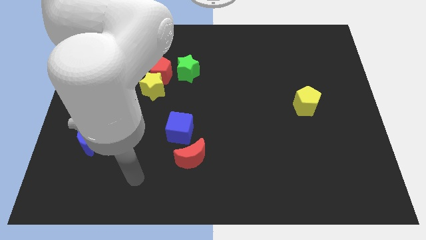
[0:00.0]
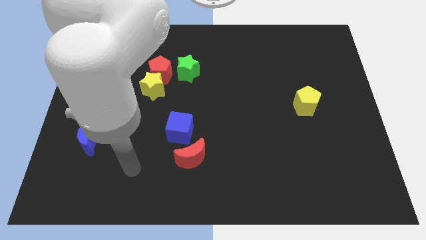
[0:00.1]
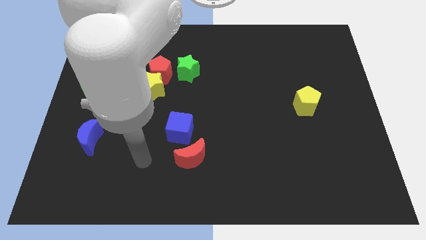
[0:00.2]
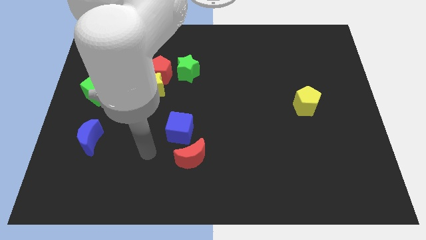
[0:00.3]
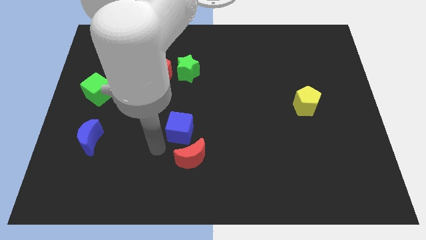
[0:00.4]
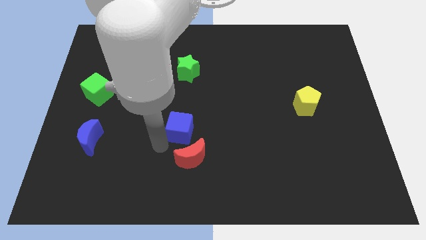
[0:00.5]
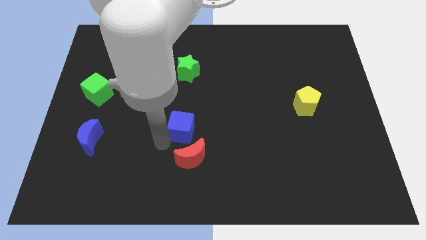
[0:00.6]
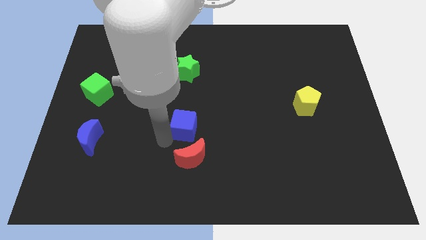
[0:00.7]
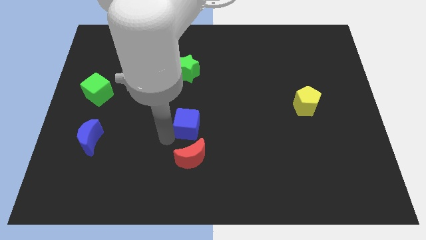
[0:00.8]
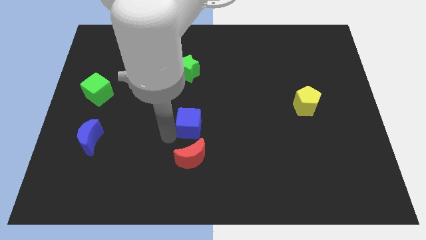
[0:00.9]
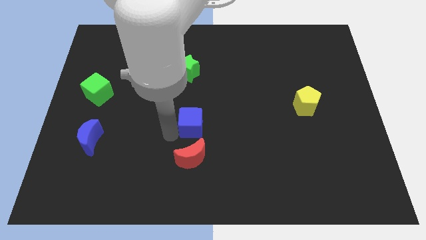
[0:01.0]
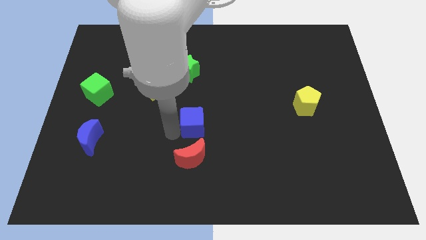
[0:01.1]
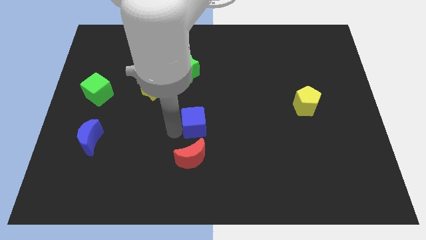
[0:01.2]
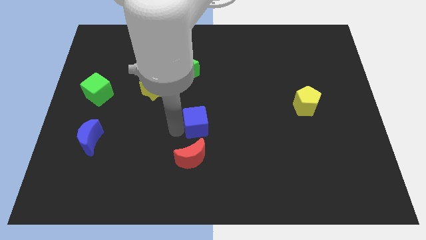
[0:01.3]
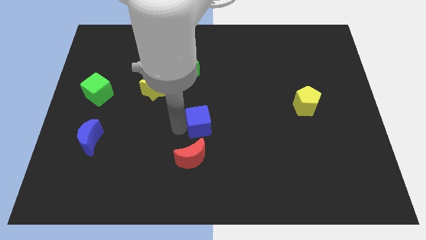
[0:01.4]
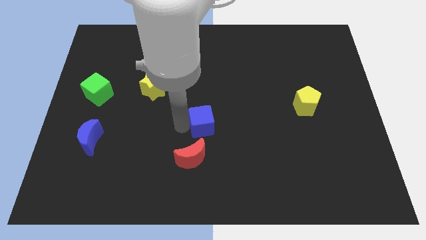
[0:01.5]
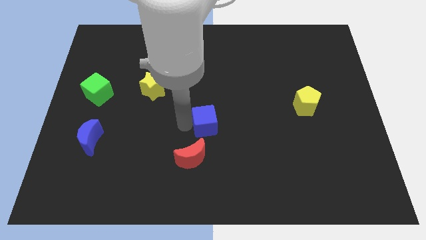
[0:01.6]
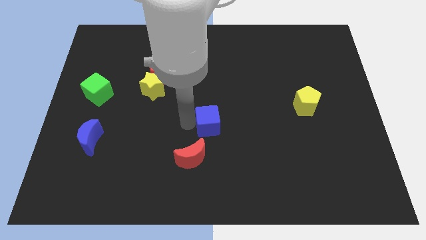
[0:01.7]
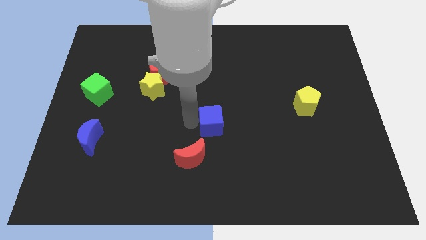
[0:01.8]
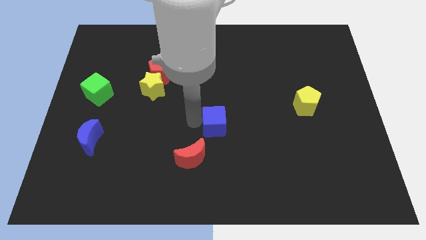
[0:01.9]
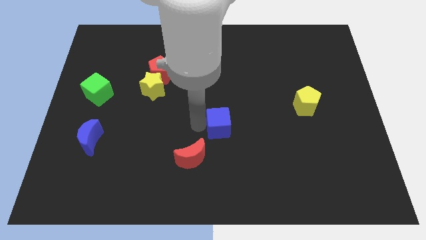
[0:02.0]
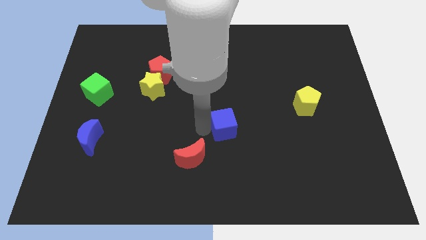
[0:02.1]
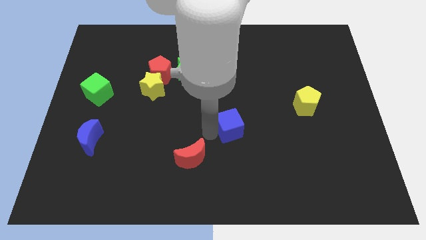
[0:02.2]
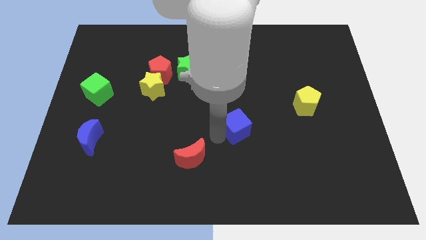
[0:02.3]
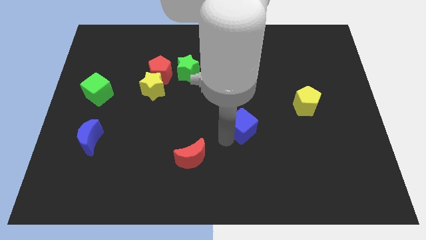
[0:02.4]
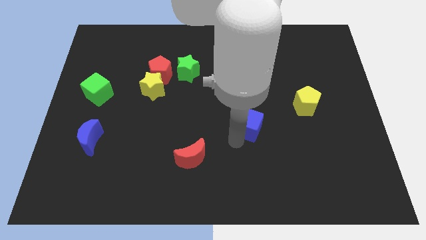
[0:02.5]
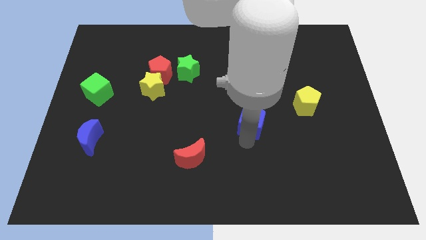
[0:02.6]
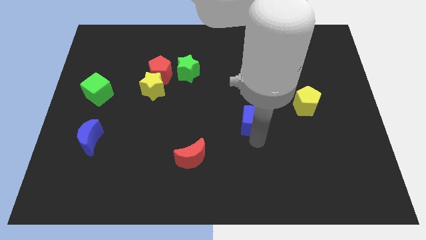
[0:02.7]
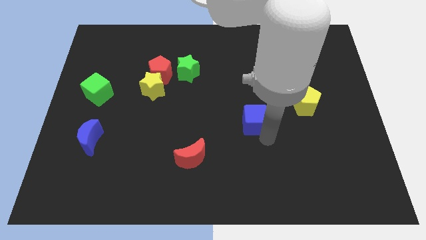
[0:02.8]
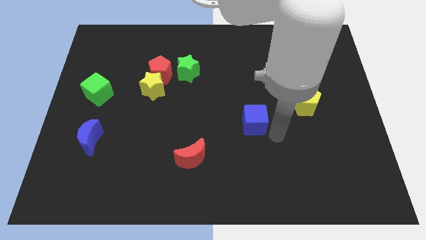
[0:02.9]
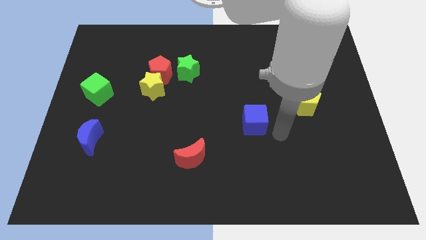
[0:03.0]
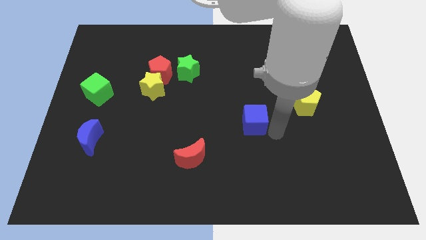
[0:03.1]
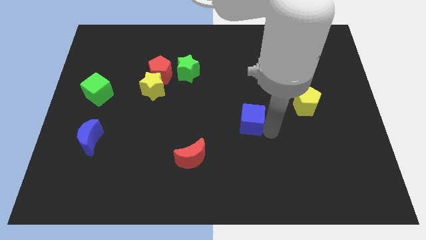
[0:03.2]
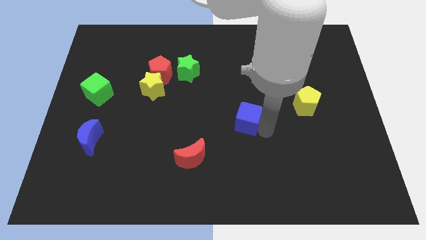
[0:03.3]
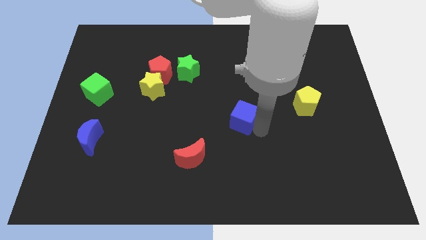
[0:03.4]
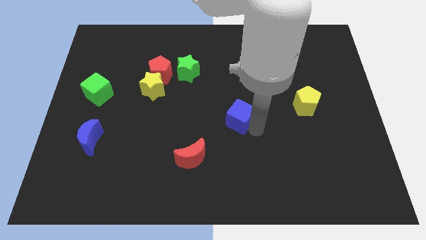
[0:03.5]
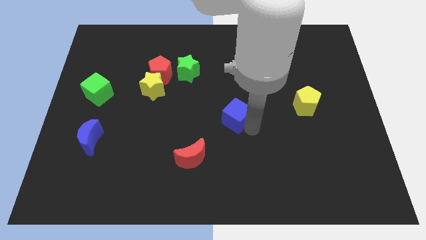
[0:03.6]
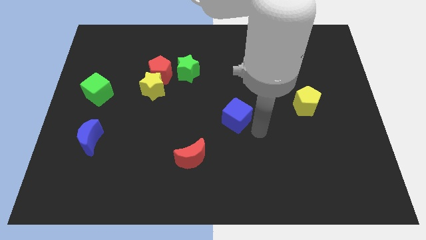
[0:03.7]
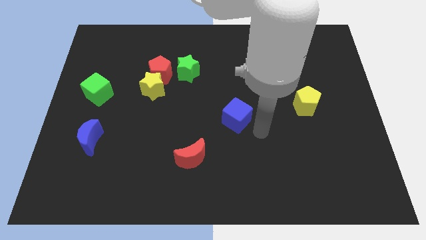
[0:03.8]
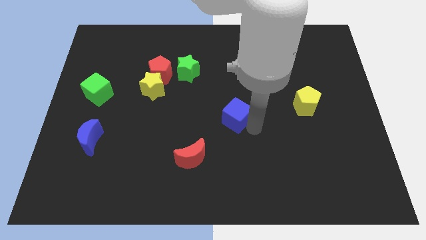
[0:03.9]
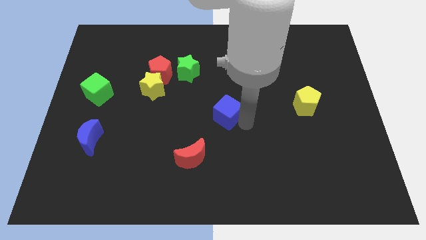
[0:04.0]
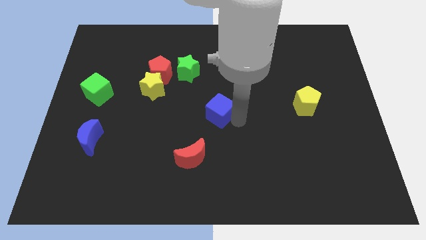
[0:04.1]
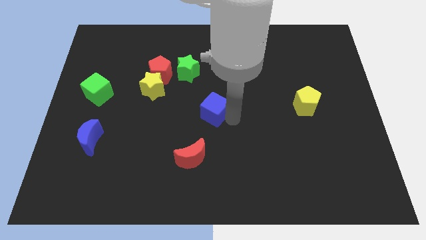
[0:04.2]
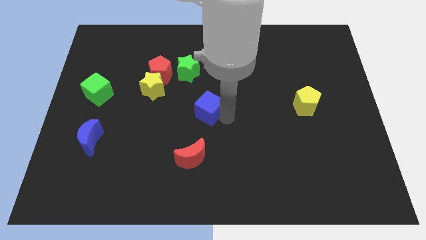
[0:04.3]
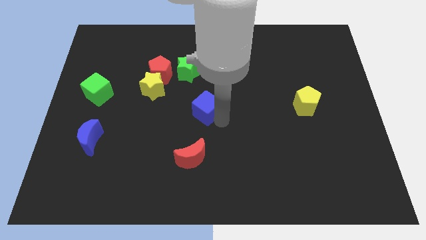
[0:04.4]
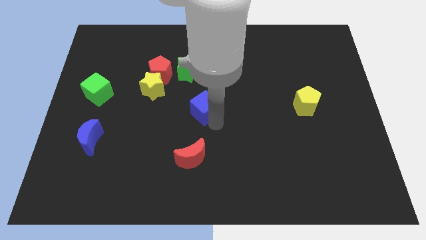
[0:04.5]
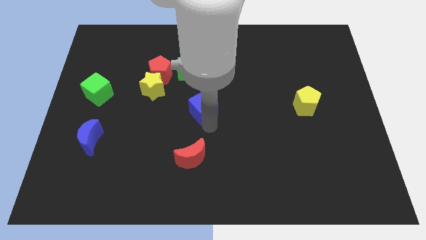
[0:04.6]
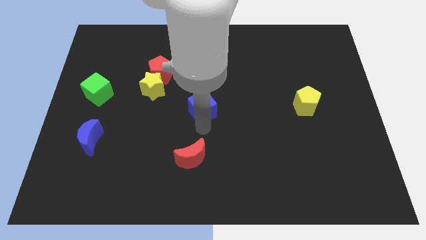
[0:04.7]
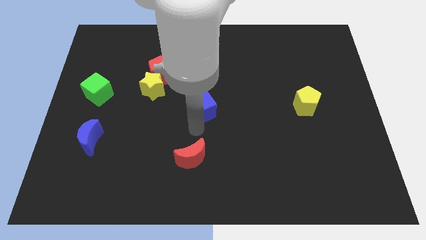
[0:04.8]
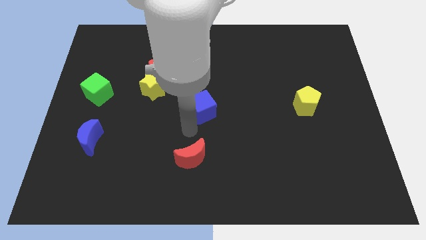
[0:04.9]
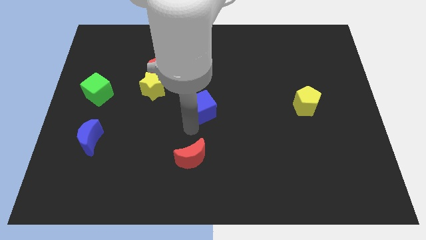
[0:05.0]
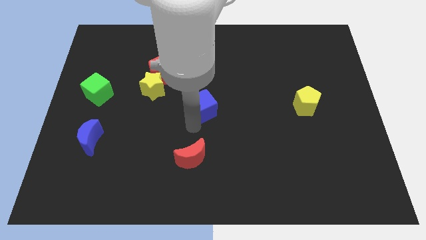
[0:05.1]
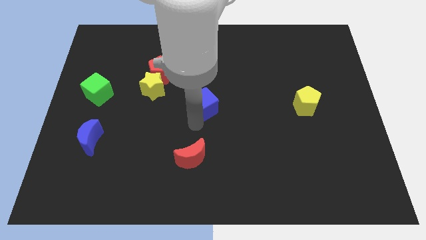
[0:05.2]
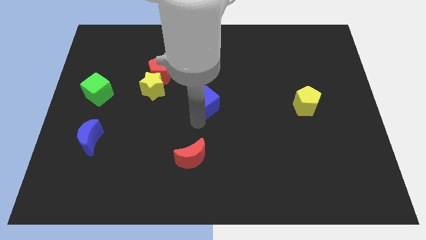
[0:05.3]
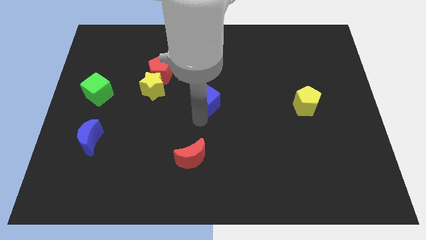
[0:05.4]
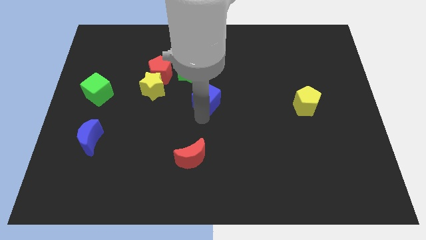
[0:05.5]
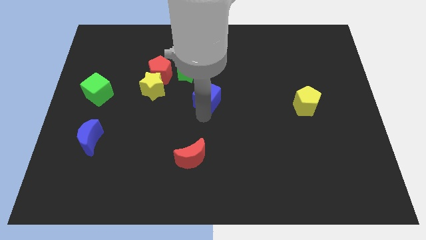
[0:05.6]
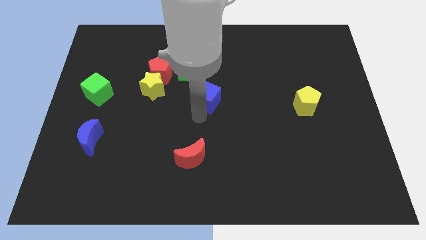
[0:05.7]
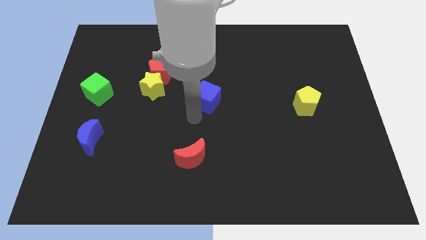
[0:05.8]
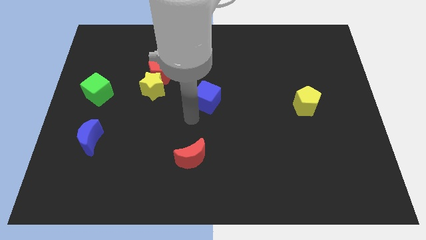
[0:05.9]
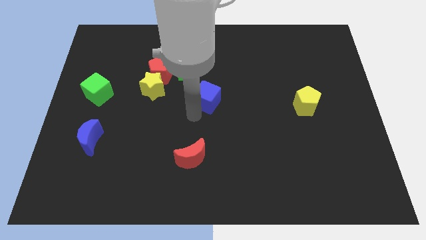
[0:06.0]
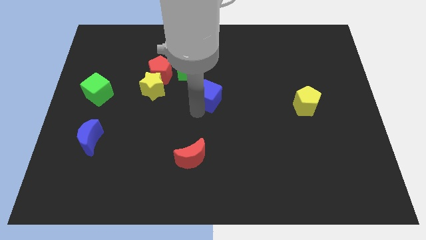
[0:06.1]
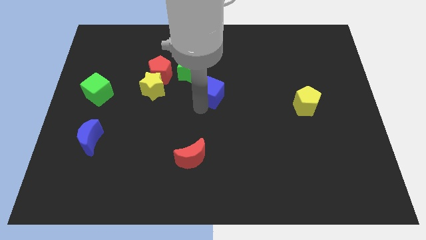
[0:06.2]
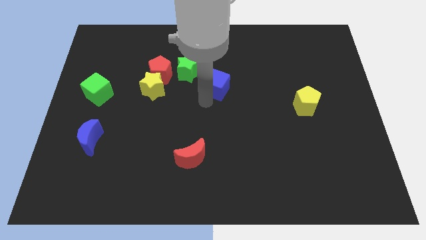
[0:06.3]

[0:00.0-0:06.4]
move the blue cube to the right side of the green star

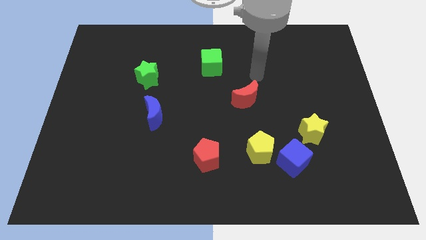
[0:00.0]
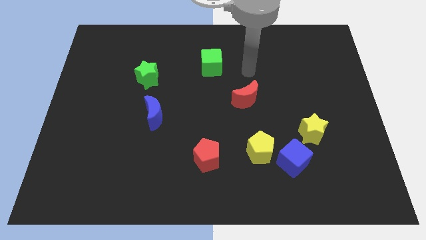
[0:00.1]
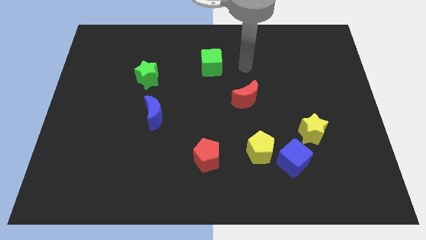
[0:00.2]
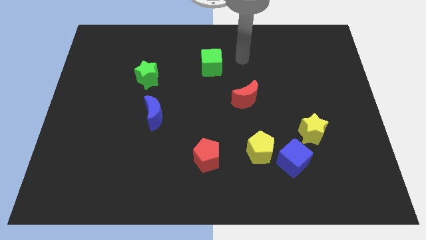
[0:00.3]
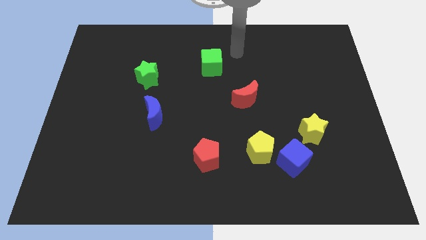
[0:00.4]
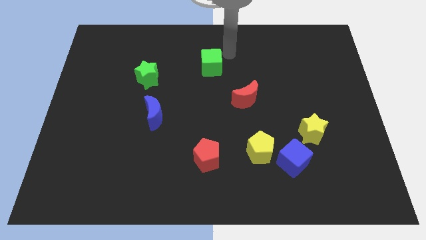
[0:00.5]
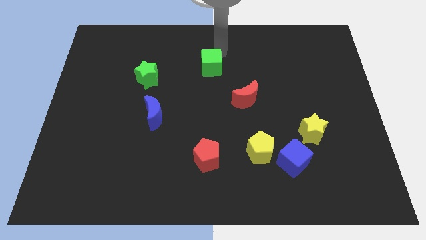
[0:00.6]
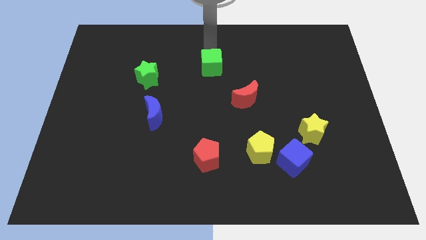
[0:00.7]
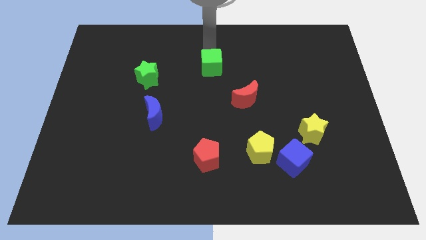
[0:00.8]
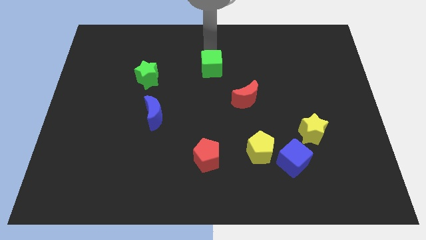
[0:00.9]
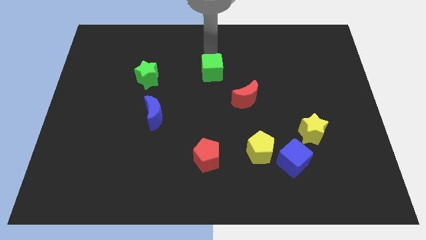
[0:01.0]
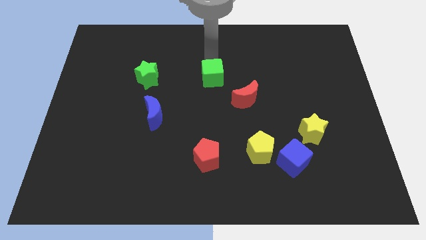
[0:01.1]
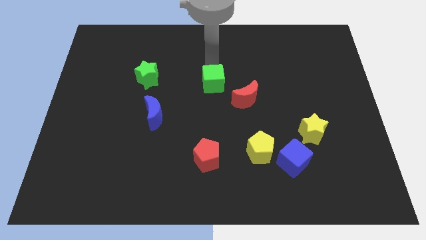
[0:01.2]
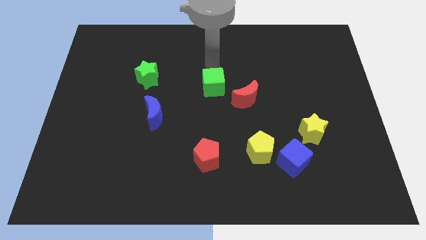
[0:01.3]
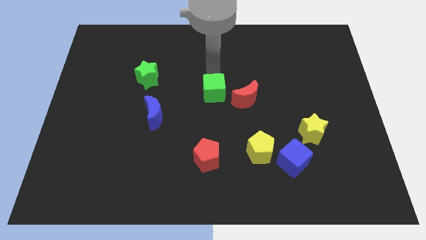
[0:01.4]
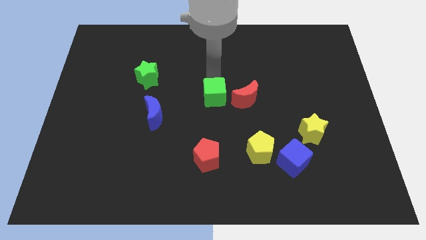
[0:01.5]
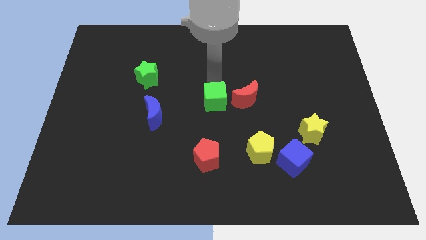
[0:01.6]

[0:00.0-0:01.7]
put the green cube to the top side of the red pentagon
